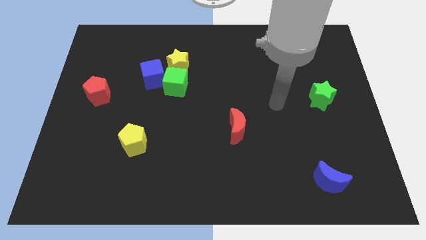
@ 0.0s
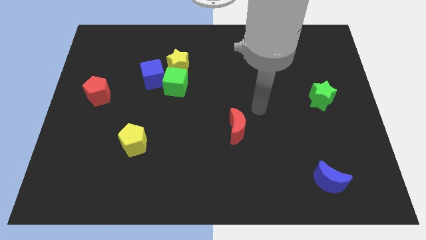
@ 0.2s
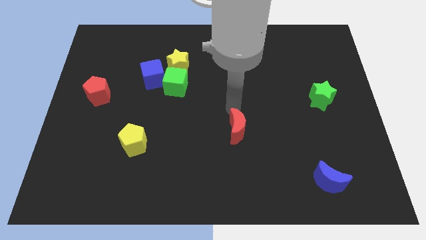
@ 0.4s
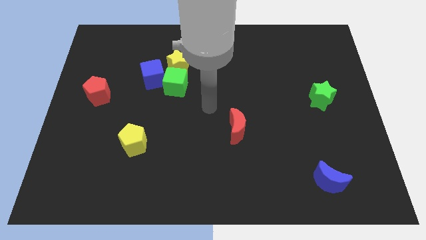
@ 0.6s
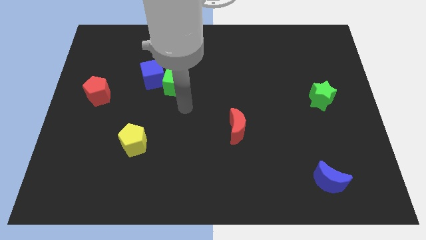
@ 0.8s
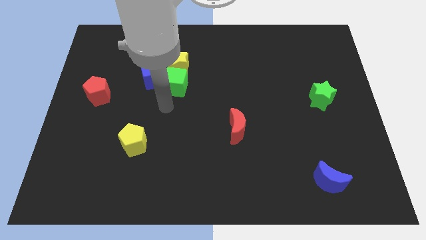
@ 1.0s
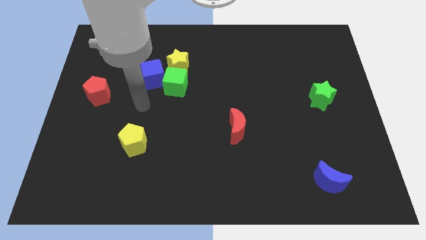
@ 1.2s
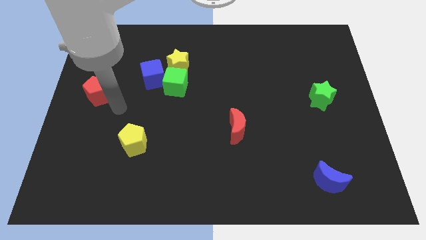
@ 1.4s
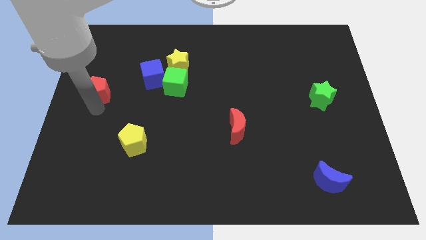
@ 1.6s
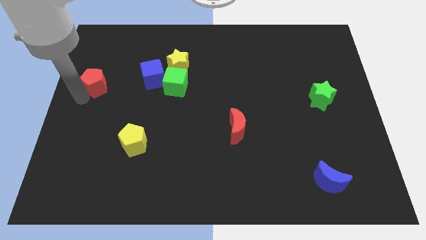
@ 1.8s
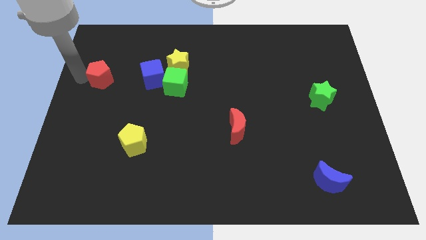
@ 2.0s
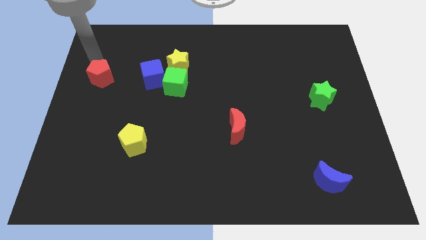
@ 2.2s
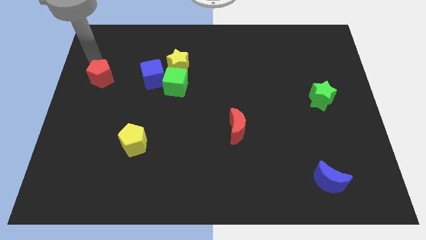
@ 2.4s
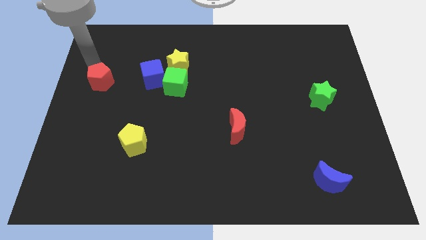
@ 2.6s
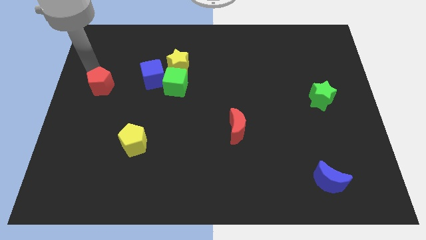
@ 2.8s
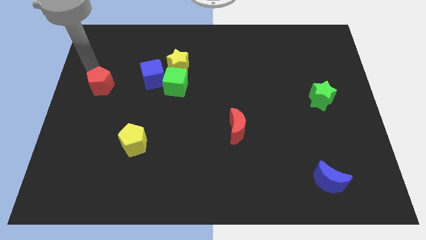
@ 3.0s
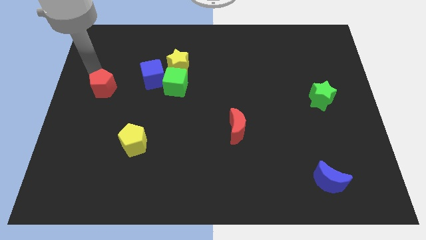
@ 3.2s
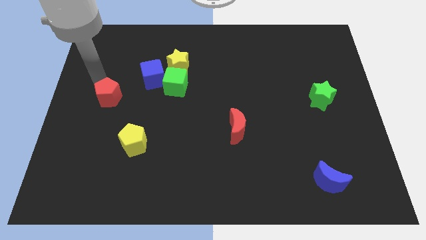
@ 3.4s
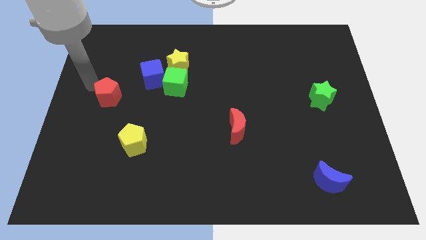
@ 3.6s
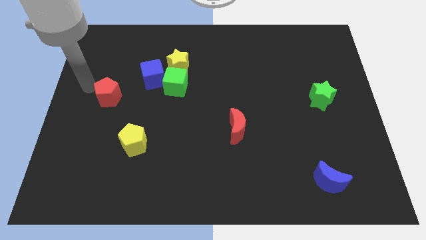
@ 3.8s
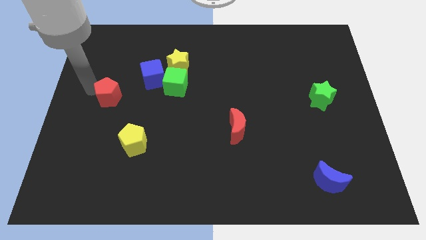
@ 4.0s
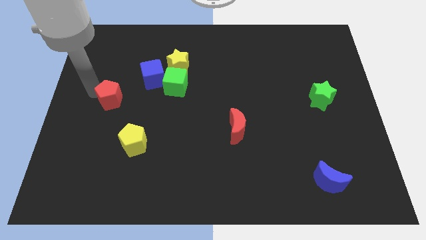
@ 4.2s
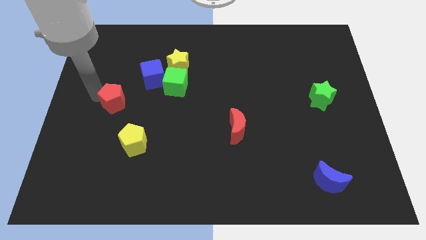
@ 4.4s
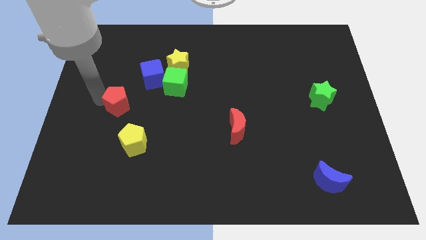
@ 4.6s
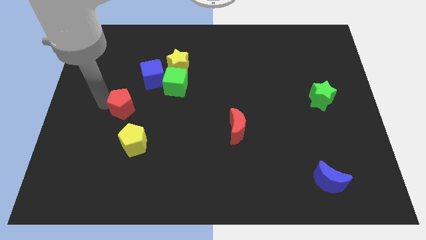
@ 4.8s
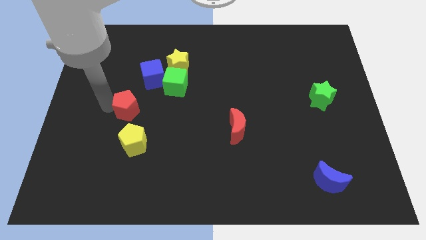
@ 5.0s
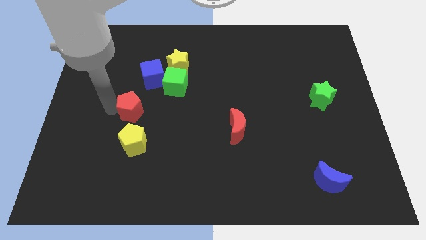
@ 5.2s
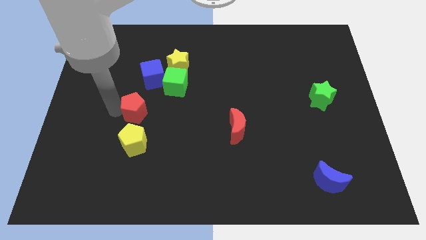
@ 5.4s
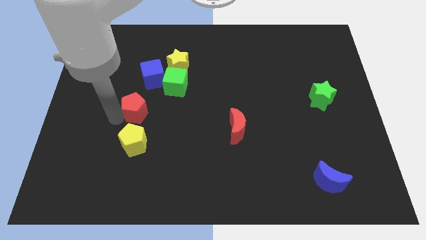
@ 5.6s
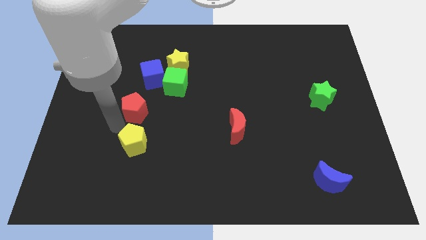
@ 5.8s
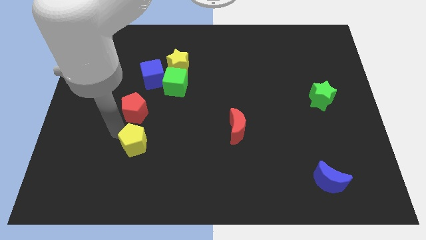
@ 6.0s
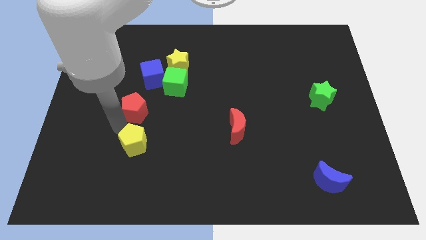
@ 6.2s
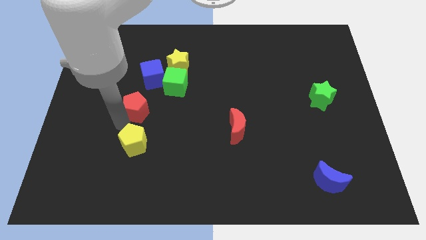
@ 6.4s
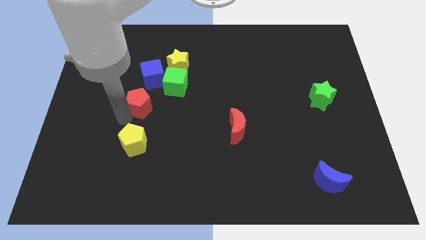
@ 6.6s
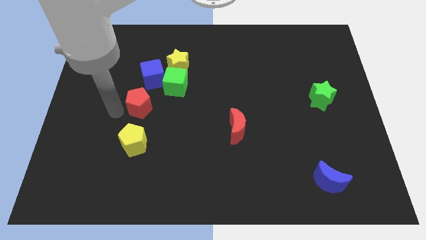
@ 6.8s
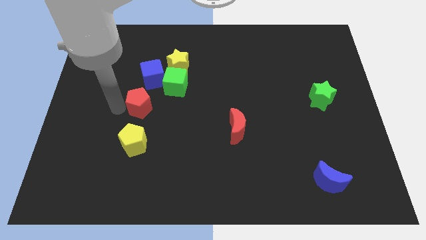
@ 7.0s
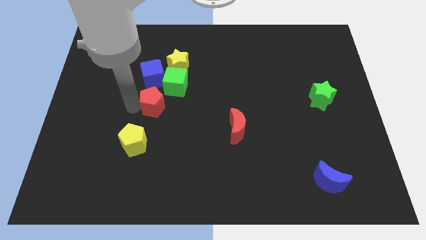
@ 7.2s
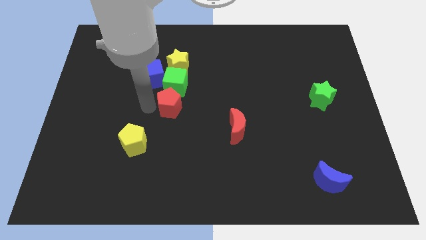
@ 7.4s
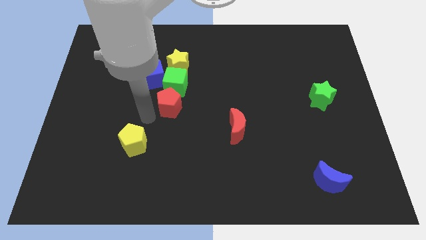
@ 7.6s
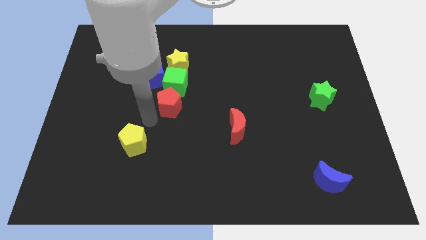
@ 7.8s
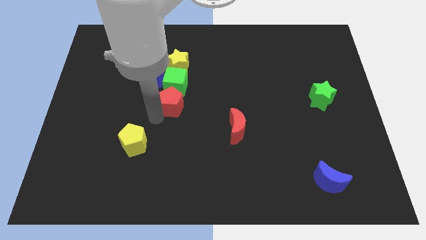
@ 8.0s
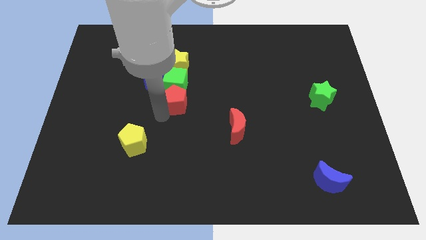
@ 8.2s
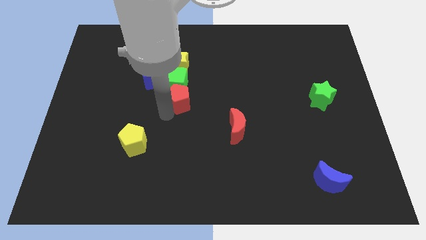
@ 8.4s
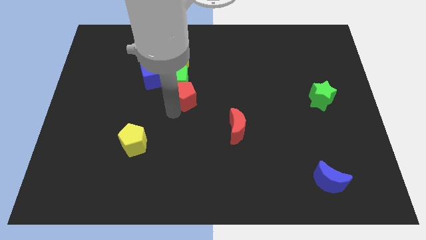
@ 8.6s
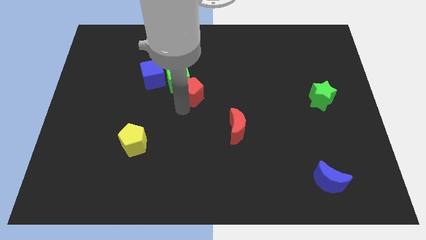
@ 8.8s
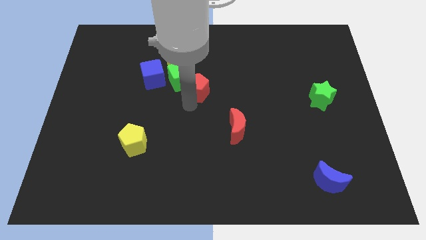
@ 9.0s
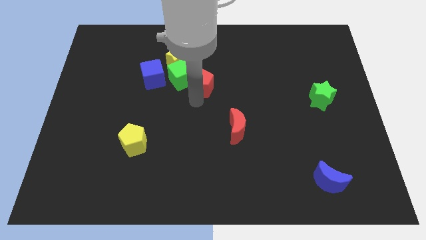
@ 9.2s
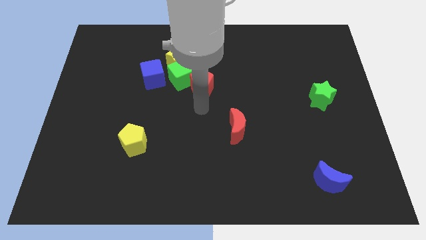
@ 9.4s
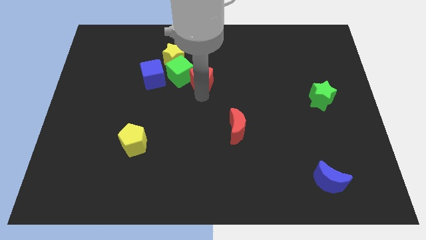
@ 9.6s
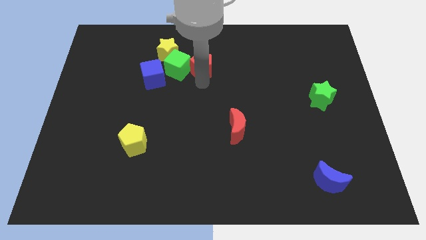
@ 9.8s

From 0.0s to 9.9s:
slide the red pentagon to the top right side of the green cube

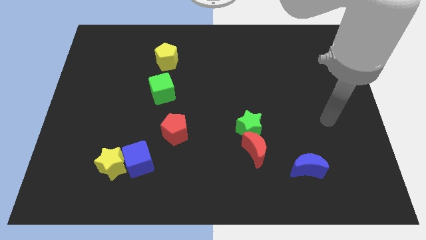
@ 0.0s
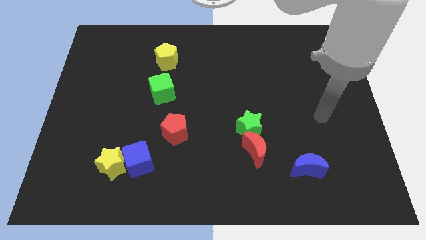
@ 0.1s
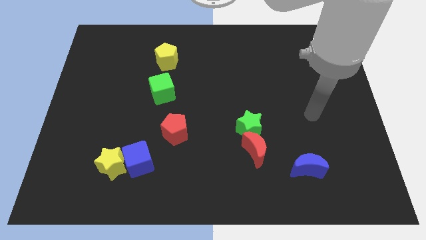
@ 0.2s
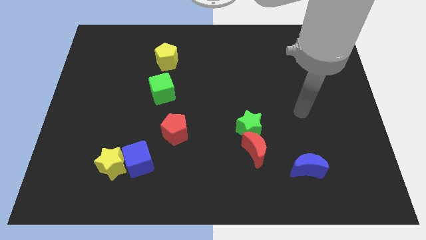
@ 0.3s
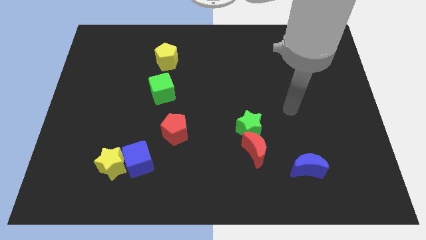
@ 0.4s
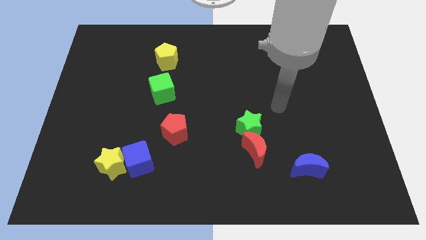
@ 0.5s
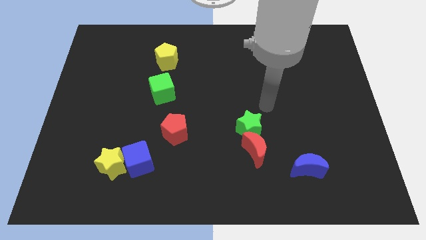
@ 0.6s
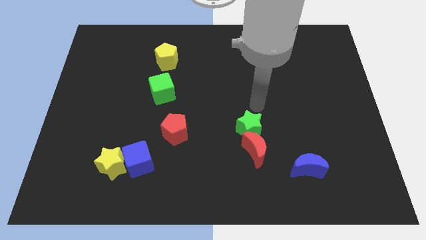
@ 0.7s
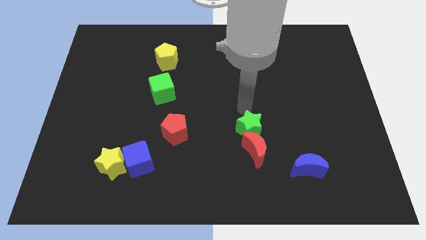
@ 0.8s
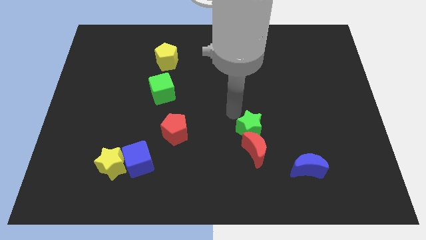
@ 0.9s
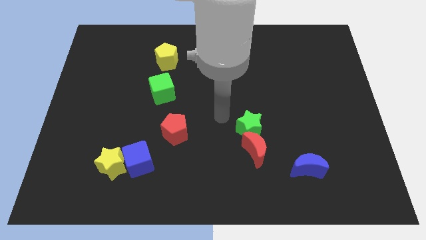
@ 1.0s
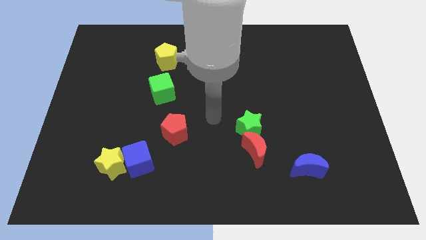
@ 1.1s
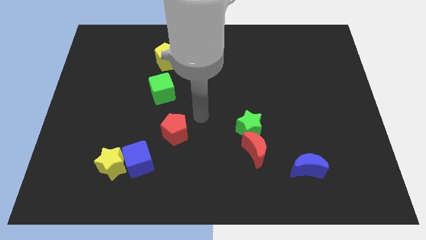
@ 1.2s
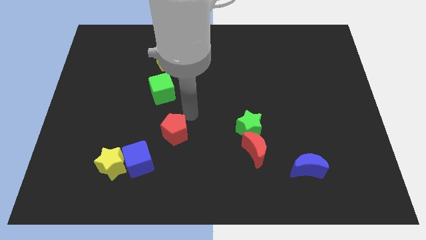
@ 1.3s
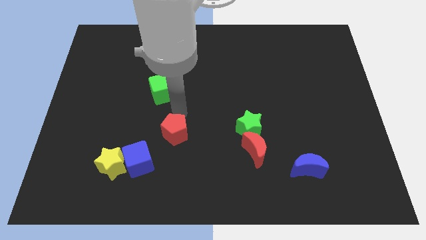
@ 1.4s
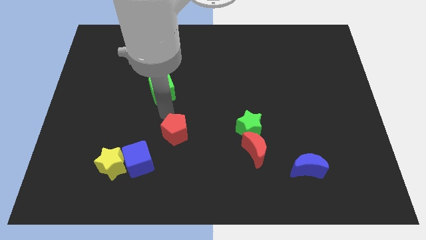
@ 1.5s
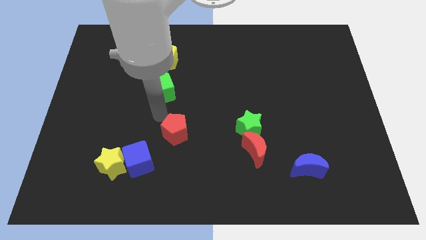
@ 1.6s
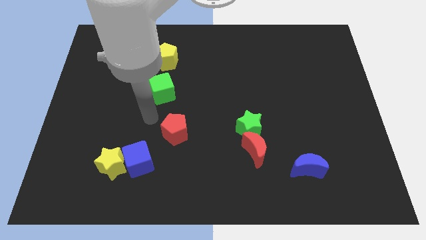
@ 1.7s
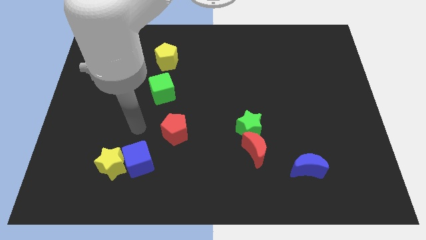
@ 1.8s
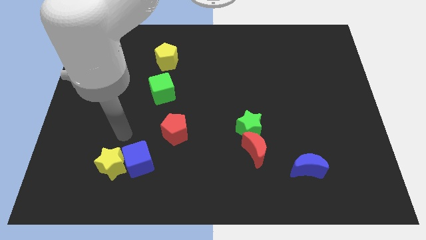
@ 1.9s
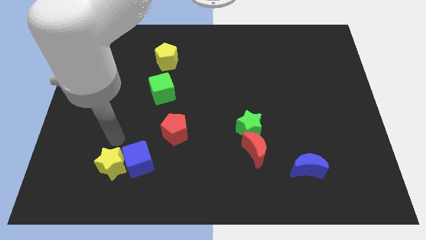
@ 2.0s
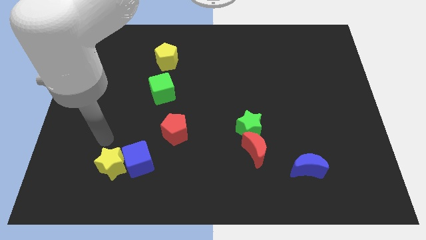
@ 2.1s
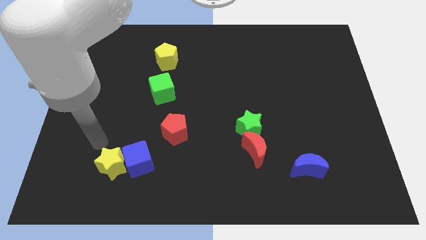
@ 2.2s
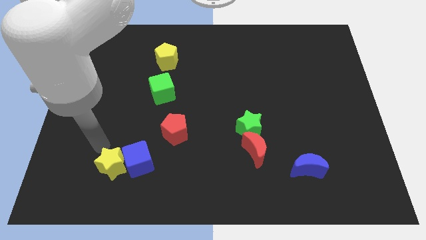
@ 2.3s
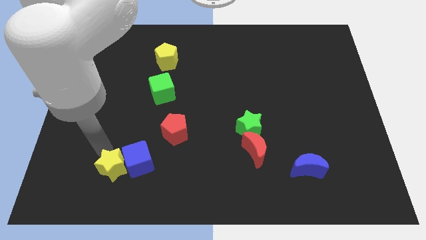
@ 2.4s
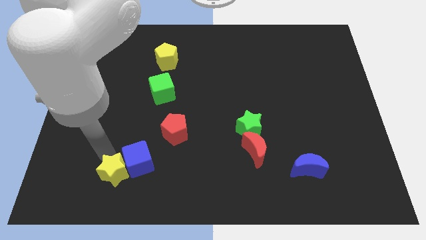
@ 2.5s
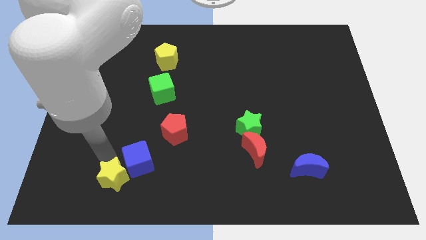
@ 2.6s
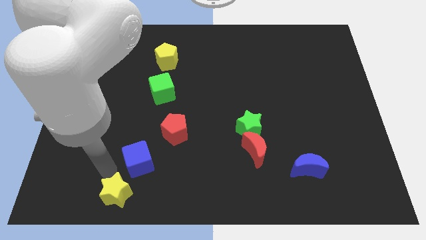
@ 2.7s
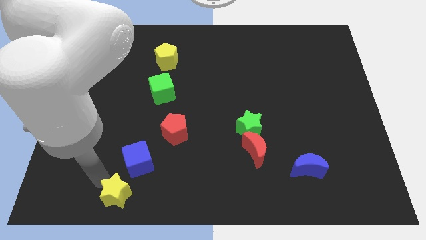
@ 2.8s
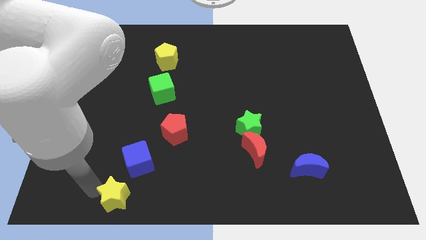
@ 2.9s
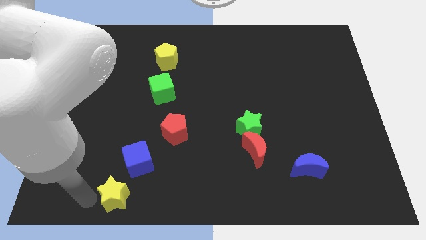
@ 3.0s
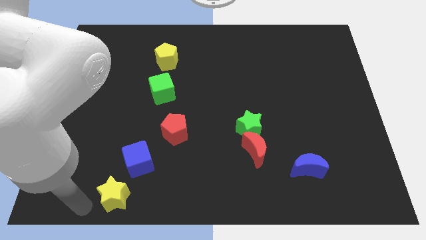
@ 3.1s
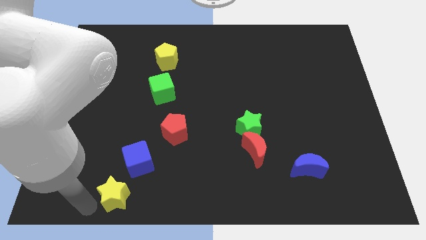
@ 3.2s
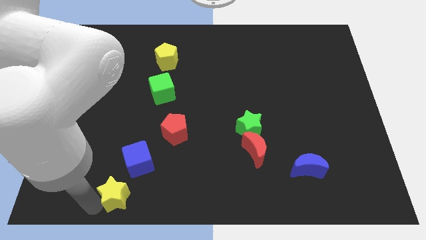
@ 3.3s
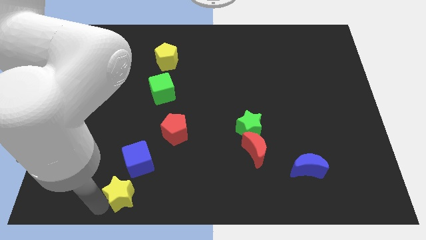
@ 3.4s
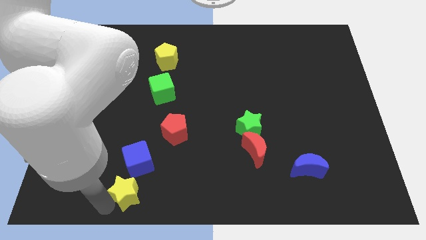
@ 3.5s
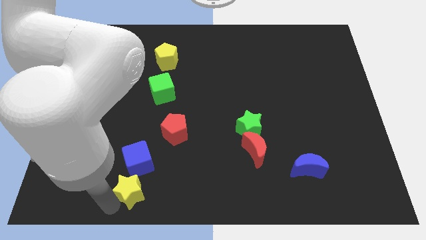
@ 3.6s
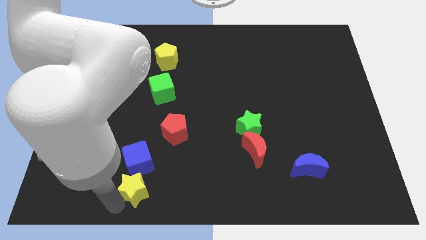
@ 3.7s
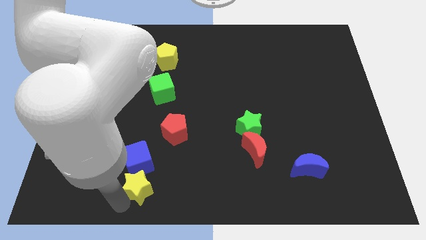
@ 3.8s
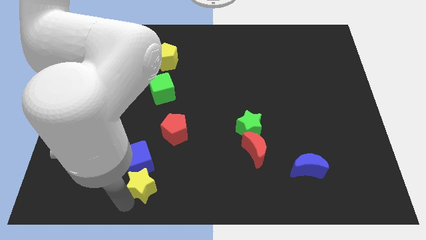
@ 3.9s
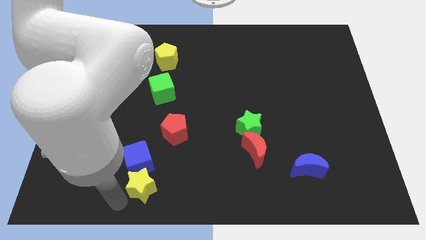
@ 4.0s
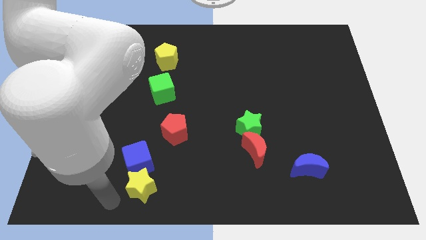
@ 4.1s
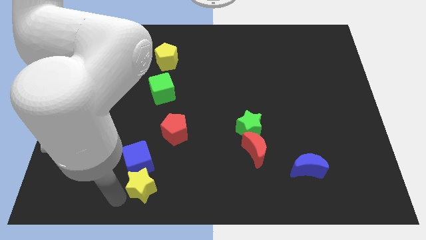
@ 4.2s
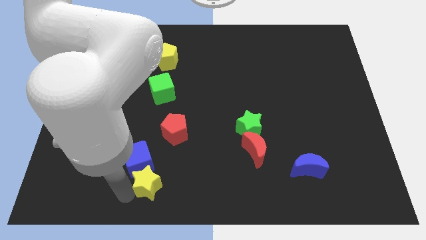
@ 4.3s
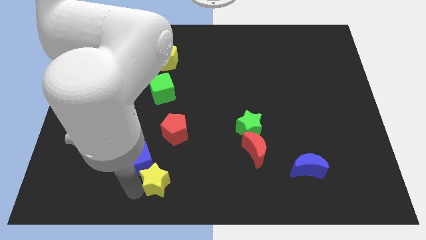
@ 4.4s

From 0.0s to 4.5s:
put the yellow star to the bottom side of the red pentagon
